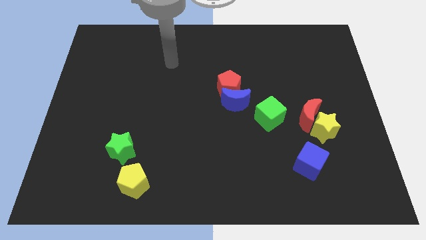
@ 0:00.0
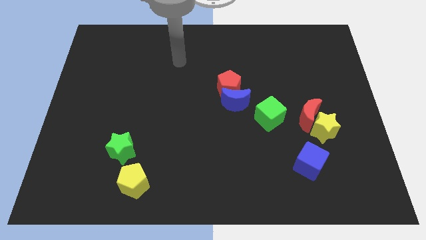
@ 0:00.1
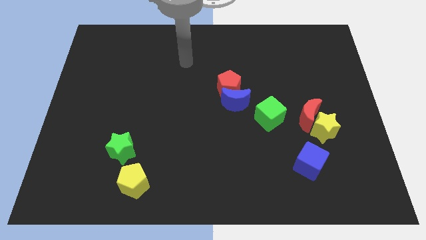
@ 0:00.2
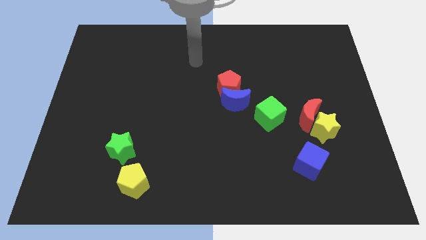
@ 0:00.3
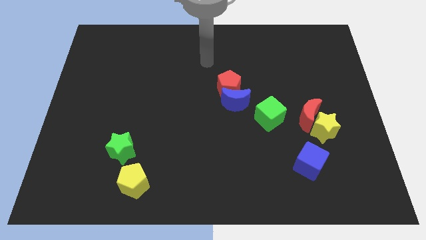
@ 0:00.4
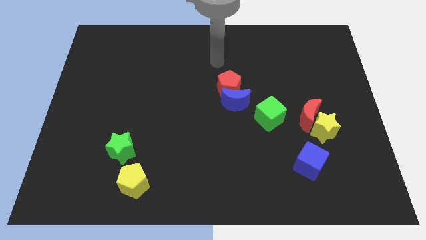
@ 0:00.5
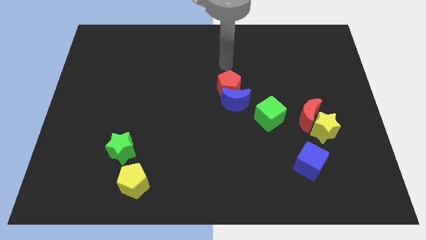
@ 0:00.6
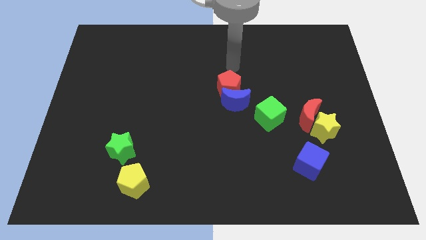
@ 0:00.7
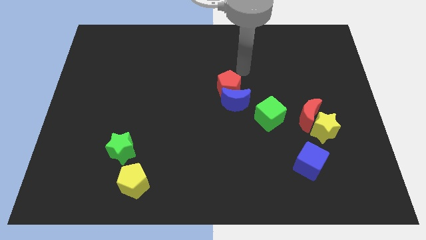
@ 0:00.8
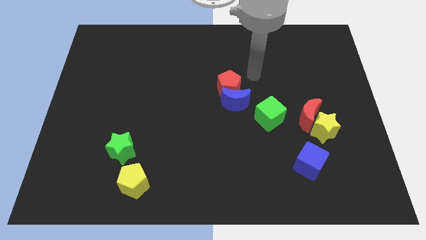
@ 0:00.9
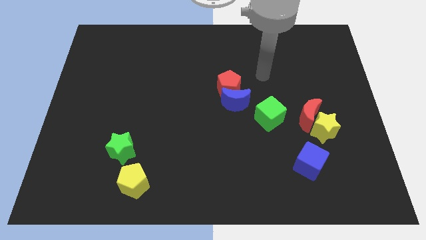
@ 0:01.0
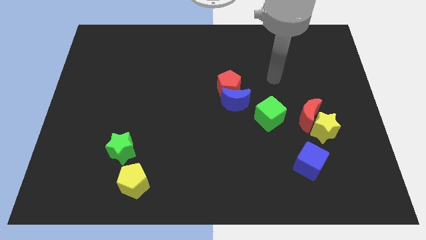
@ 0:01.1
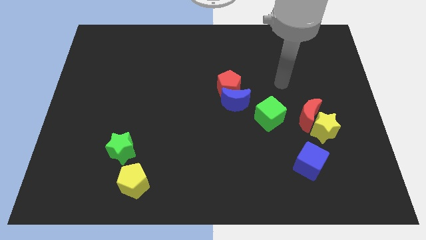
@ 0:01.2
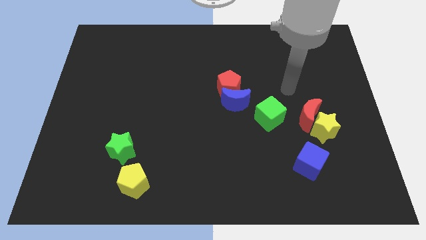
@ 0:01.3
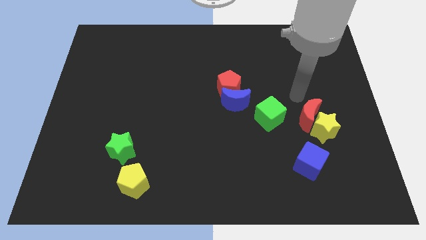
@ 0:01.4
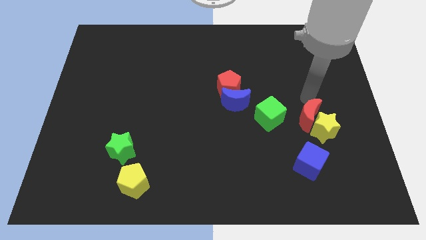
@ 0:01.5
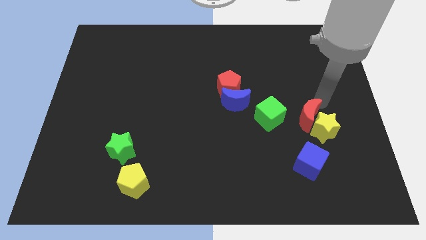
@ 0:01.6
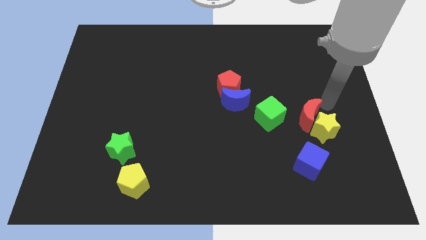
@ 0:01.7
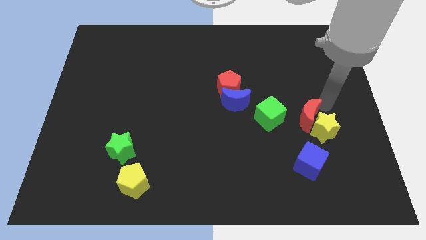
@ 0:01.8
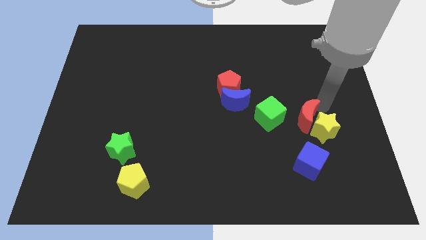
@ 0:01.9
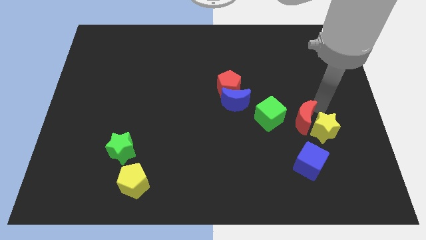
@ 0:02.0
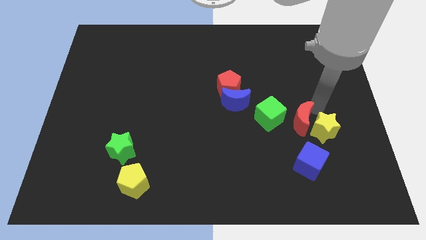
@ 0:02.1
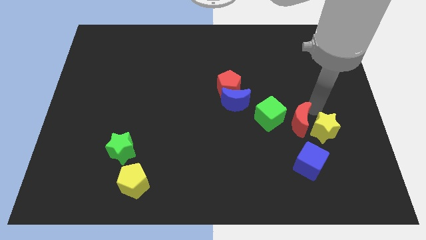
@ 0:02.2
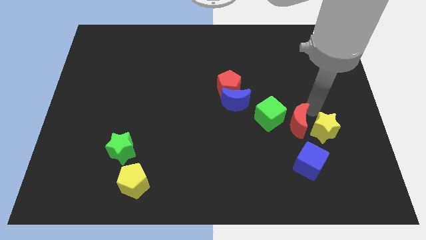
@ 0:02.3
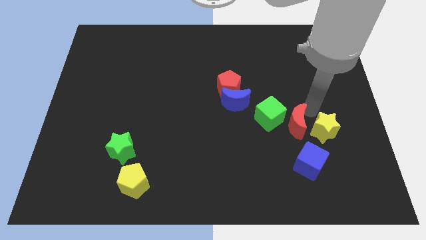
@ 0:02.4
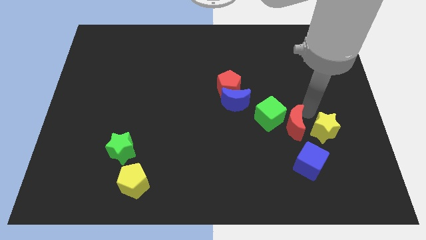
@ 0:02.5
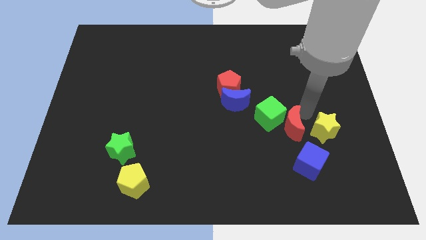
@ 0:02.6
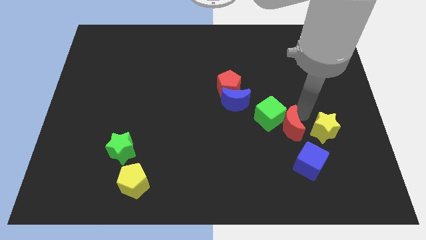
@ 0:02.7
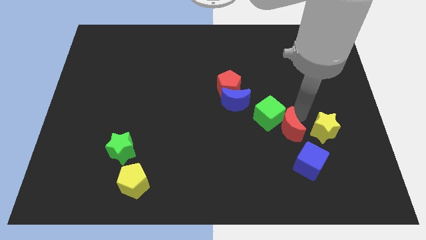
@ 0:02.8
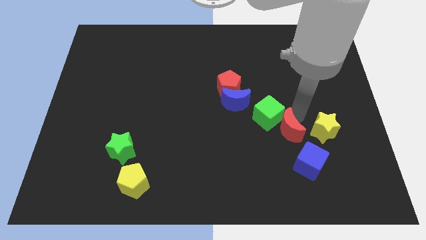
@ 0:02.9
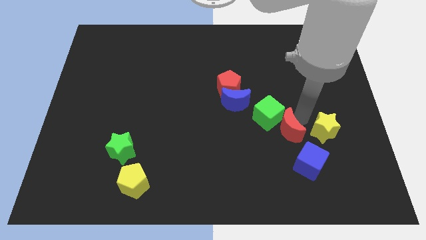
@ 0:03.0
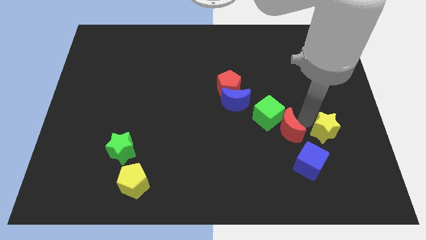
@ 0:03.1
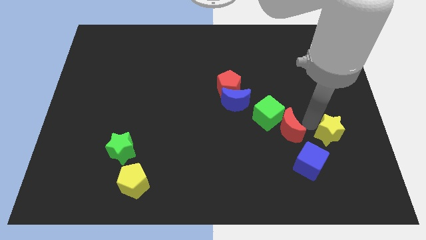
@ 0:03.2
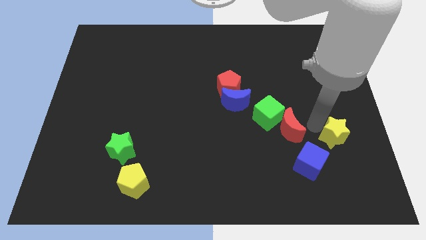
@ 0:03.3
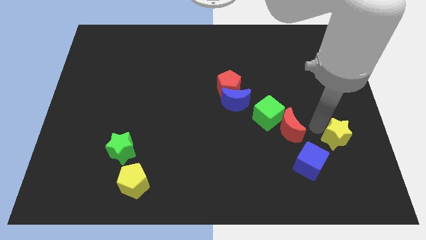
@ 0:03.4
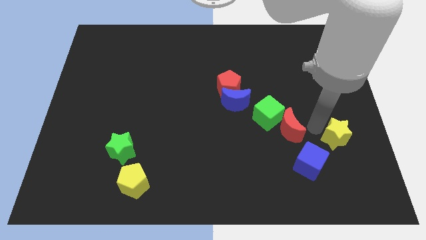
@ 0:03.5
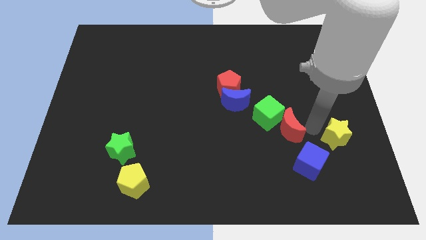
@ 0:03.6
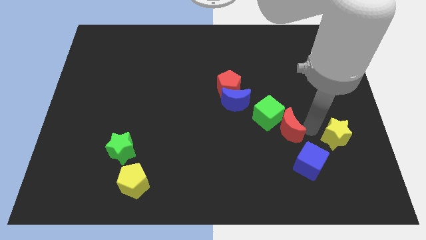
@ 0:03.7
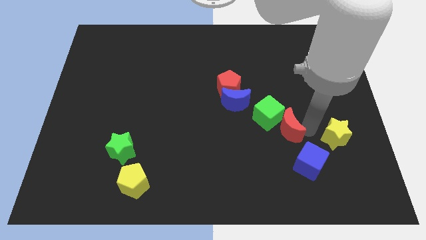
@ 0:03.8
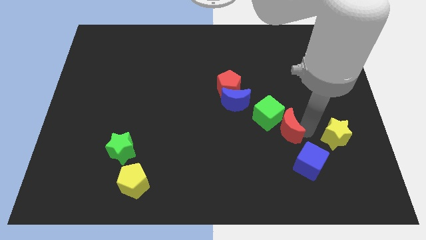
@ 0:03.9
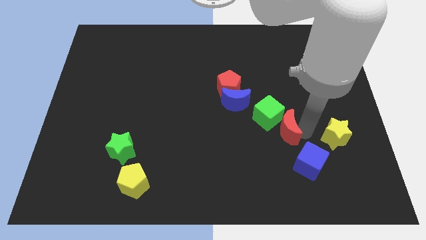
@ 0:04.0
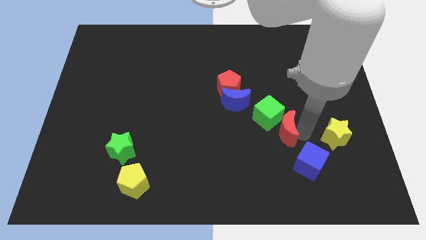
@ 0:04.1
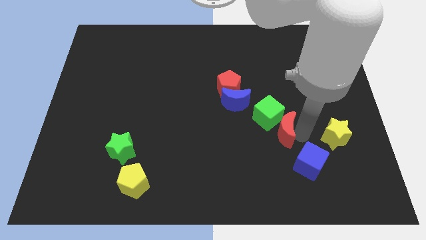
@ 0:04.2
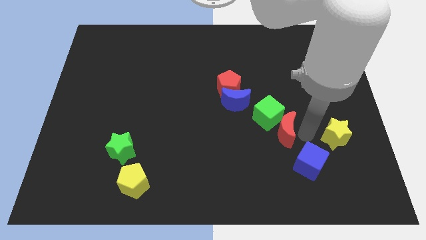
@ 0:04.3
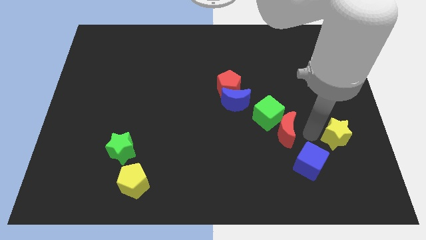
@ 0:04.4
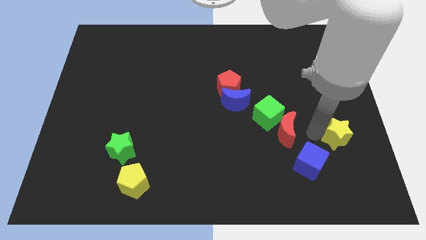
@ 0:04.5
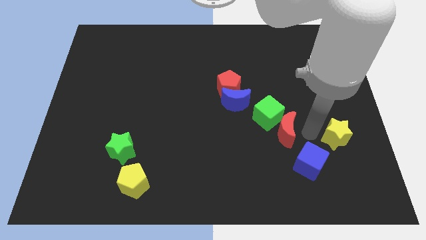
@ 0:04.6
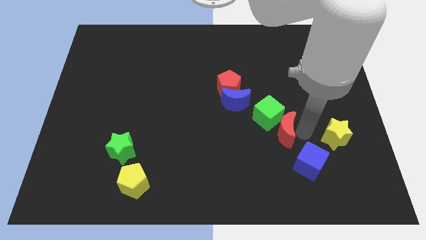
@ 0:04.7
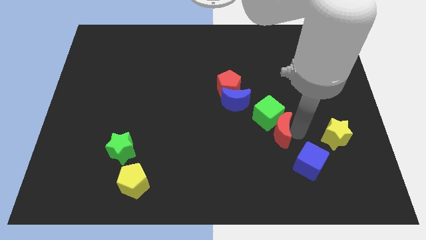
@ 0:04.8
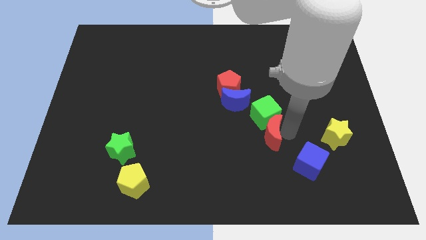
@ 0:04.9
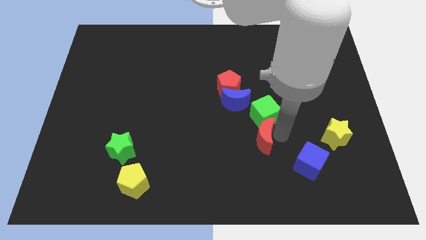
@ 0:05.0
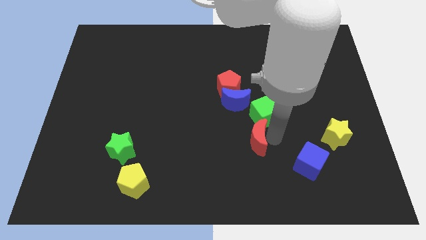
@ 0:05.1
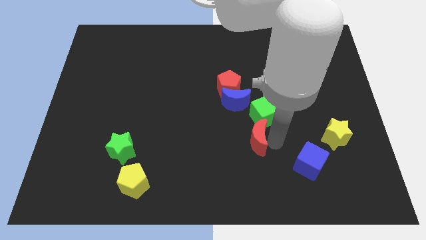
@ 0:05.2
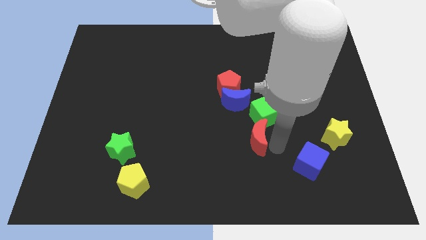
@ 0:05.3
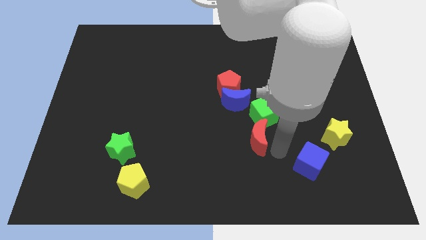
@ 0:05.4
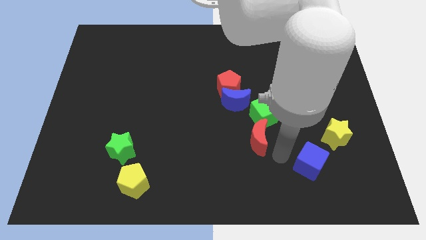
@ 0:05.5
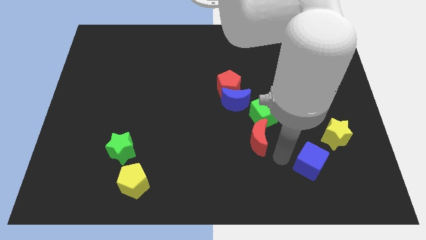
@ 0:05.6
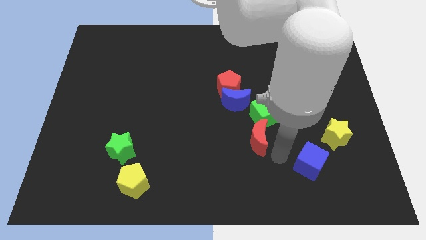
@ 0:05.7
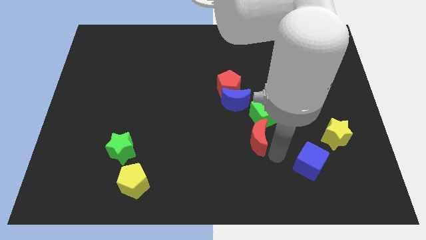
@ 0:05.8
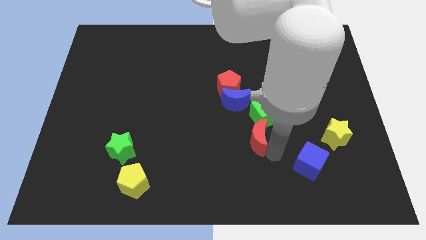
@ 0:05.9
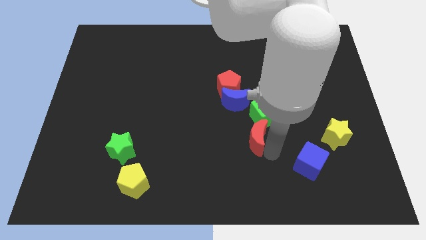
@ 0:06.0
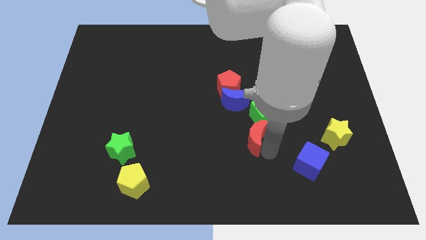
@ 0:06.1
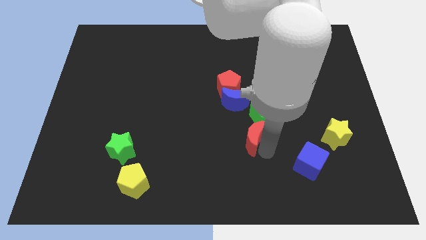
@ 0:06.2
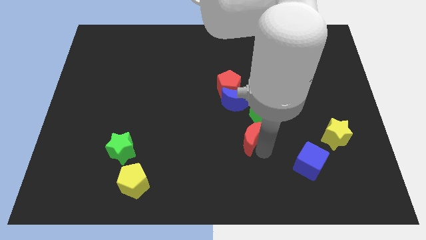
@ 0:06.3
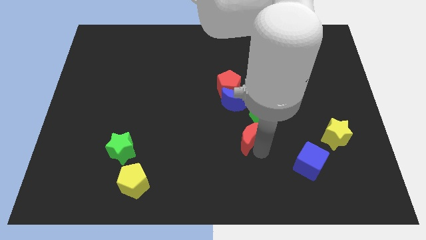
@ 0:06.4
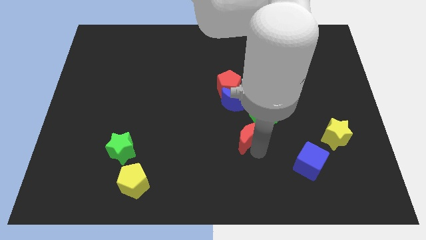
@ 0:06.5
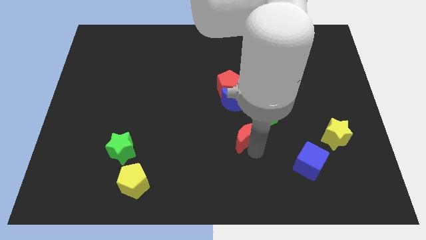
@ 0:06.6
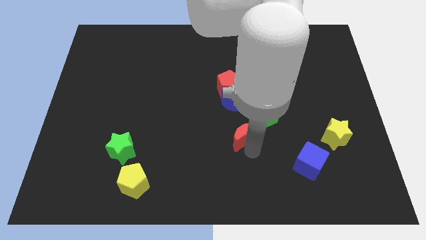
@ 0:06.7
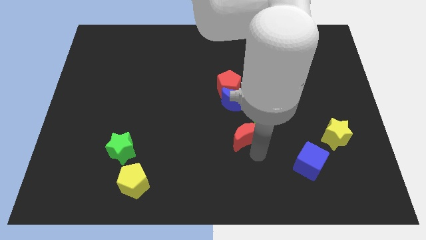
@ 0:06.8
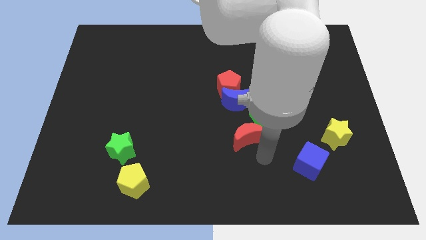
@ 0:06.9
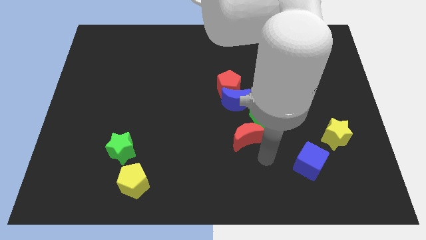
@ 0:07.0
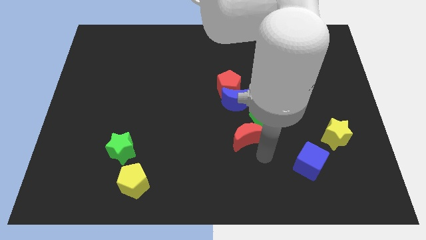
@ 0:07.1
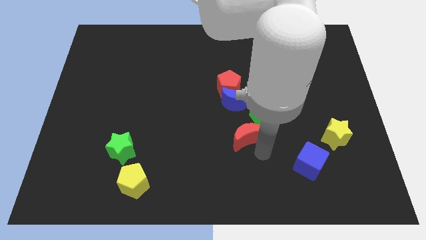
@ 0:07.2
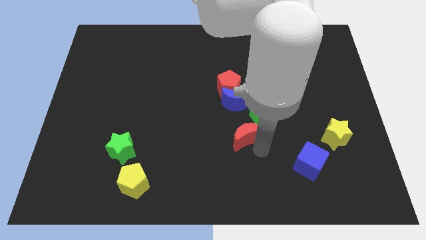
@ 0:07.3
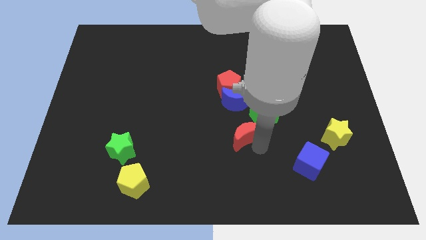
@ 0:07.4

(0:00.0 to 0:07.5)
move the red moon to the middle
